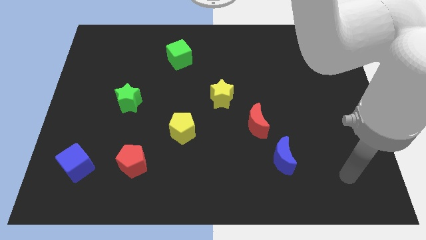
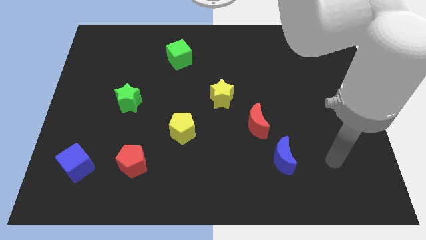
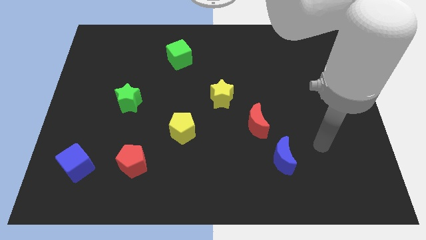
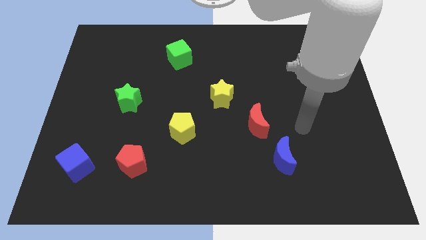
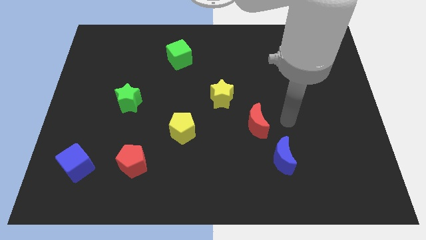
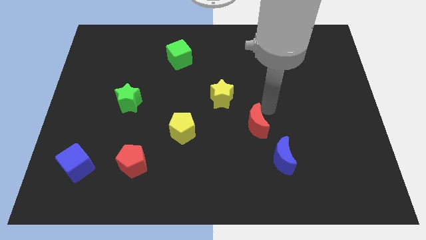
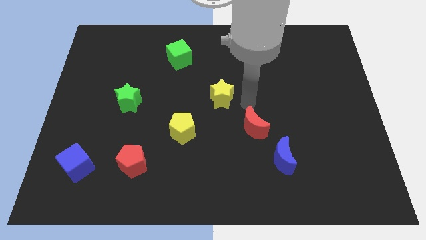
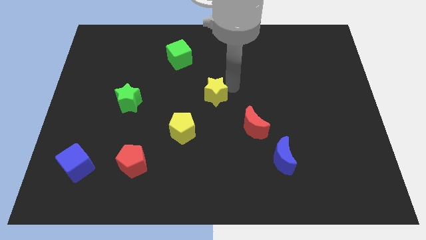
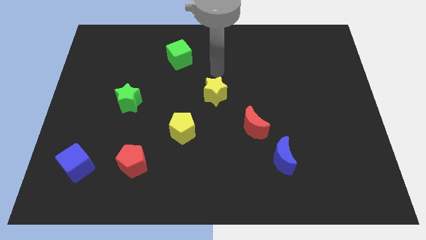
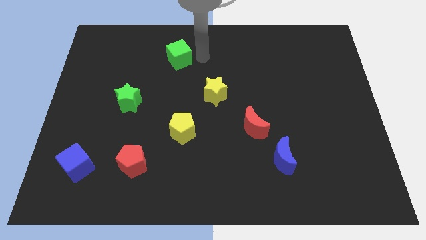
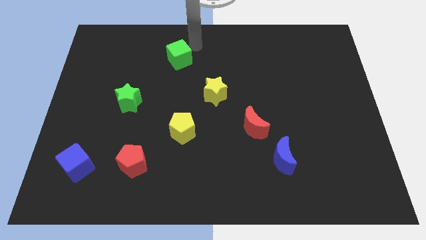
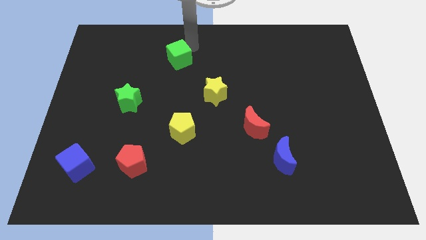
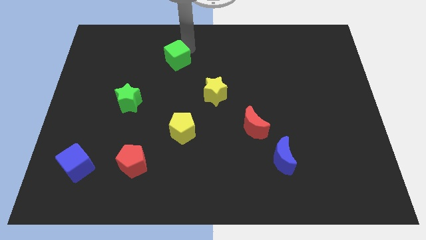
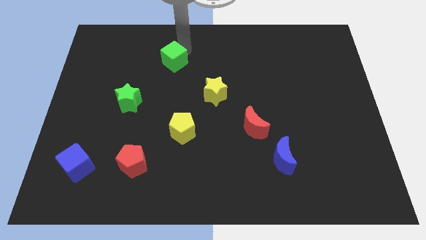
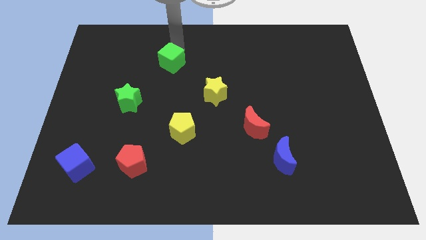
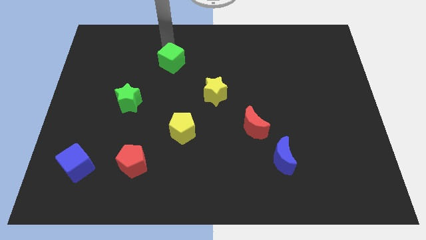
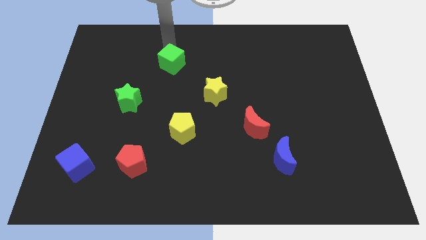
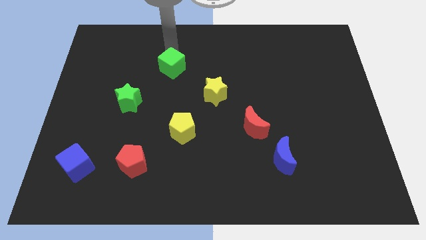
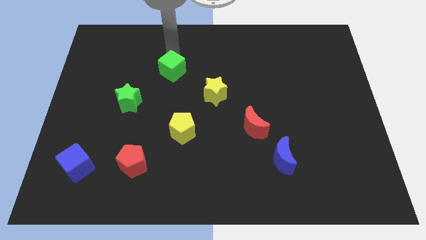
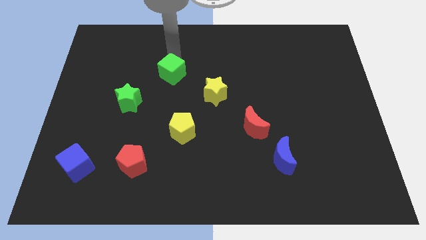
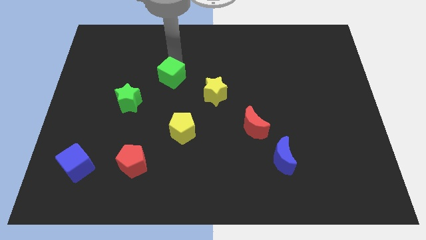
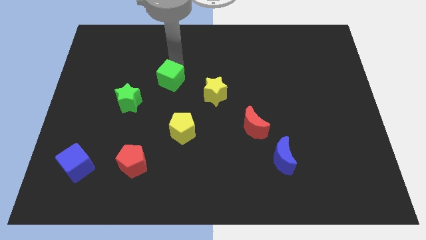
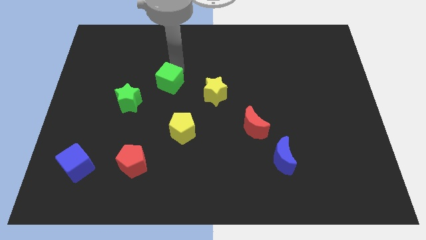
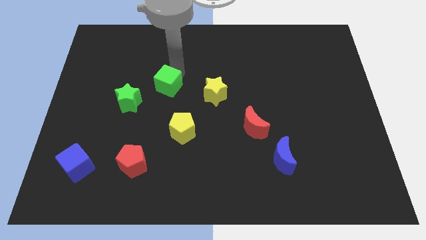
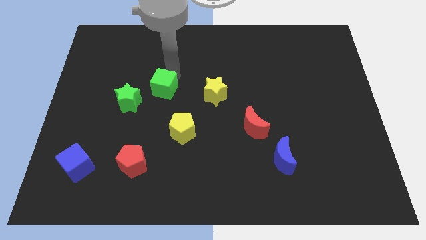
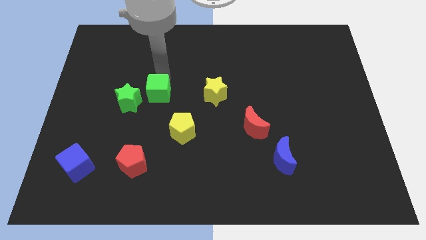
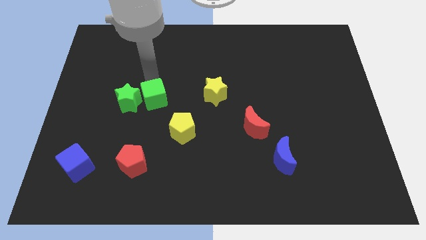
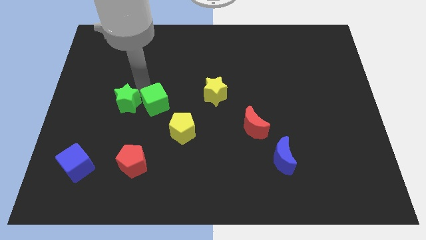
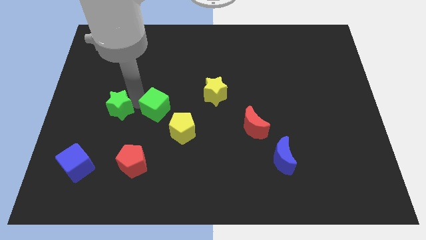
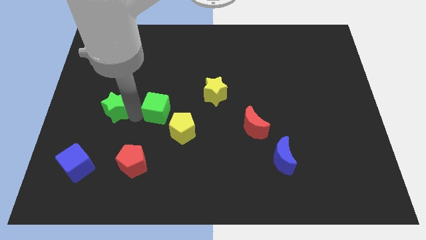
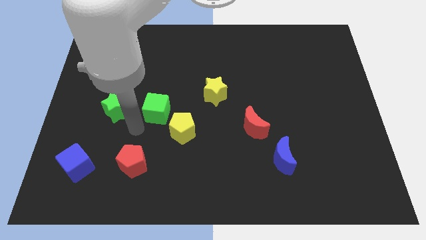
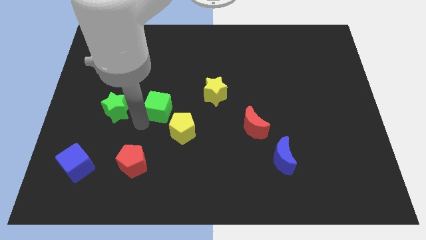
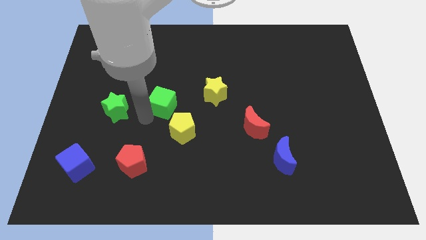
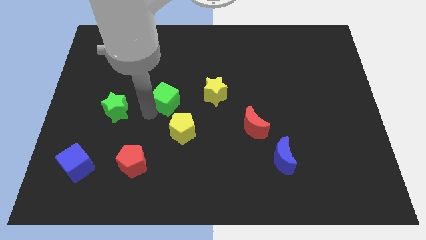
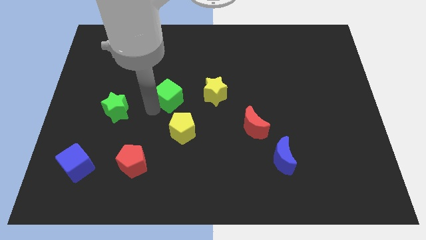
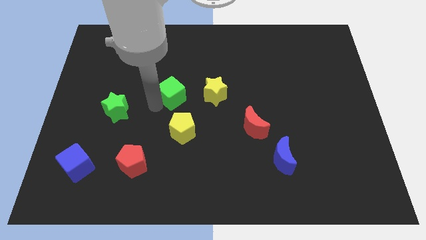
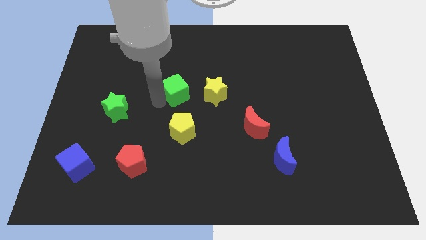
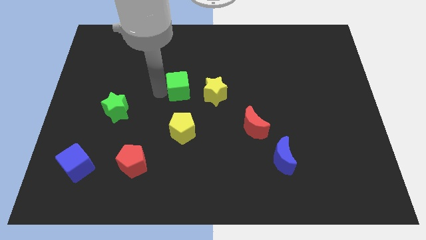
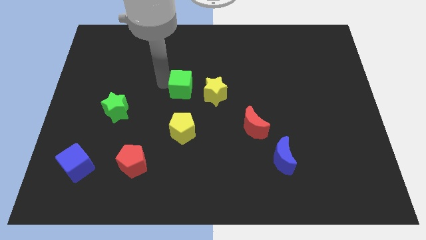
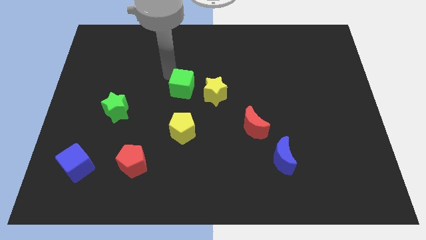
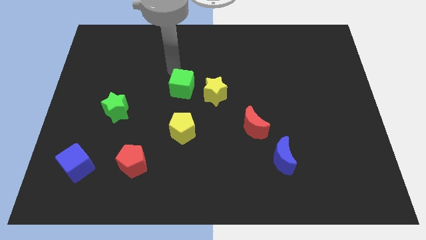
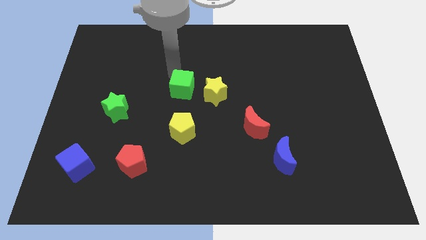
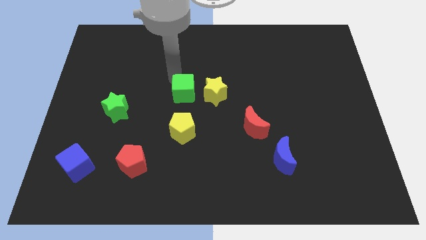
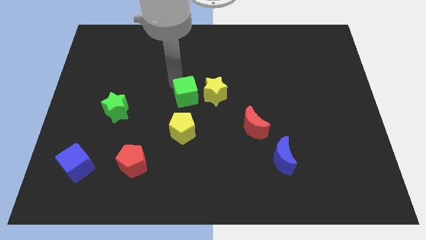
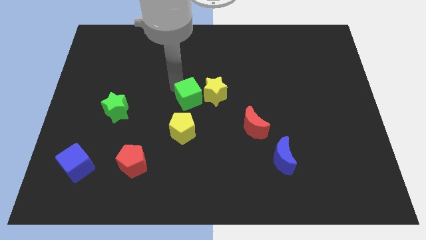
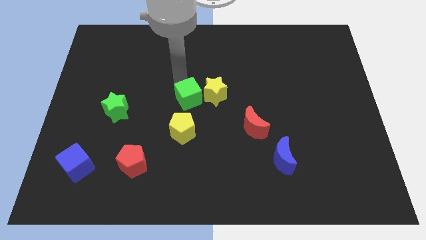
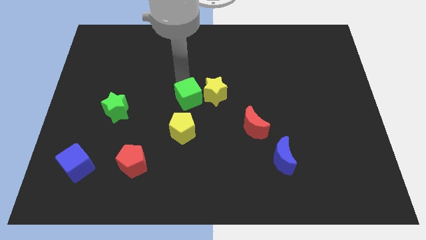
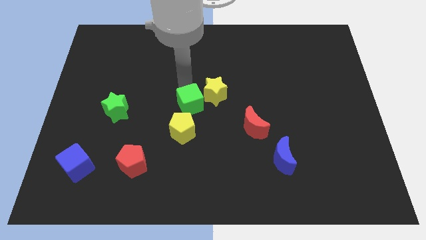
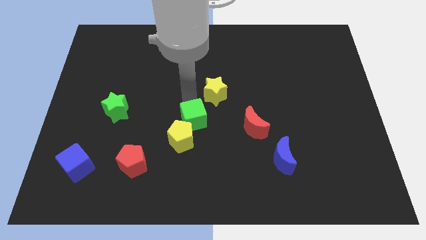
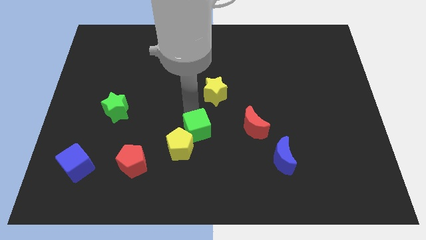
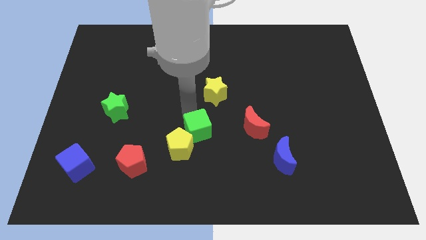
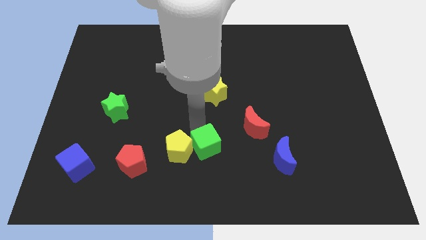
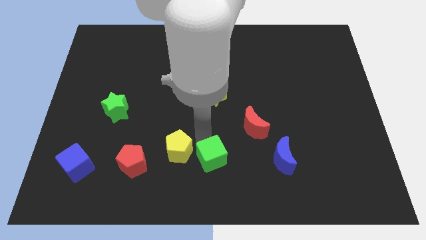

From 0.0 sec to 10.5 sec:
move the green cube to the bottom side
